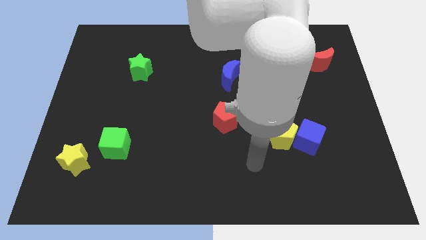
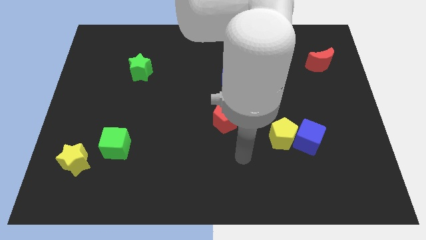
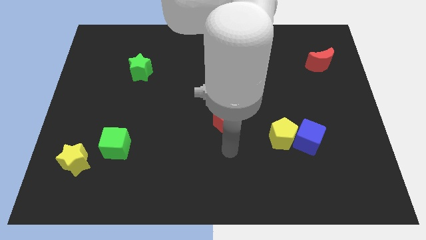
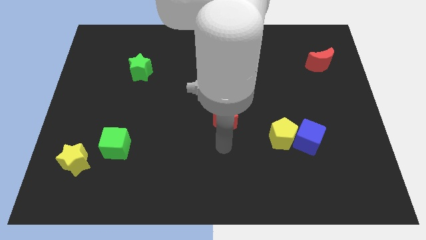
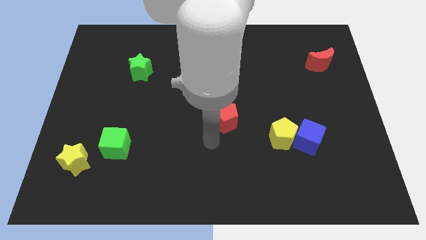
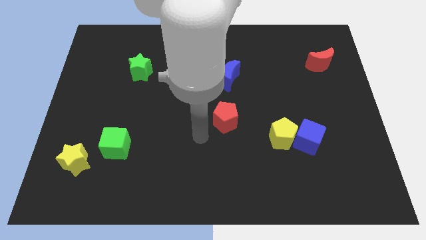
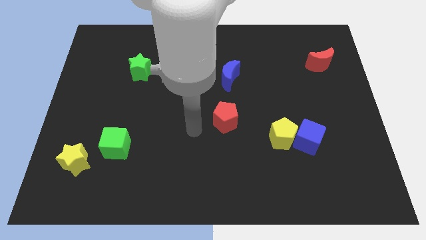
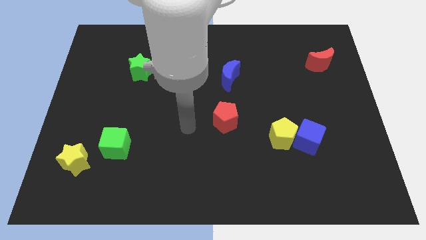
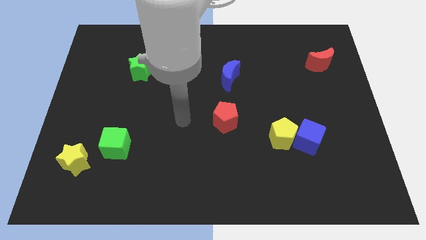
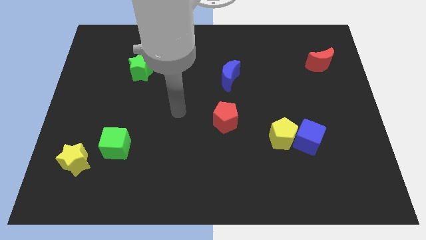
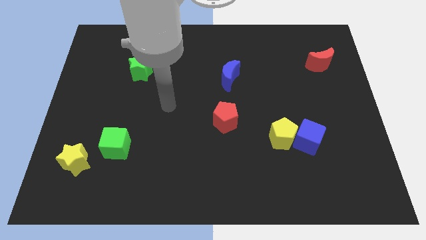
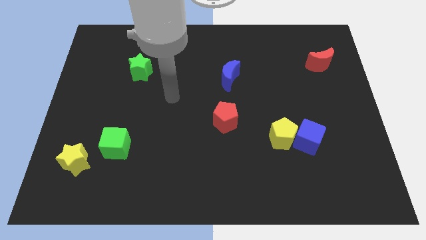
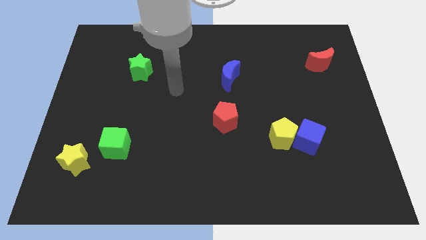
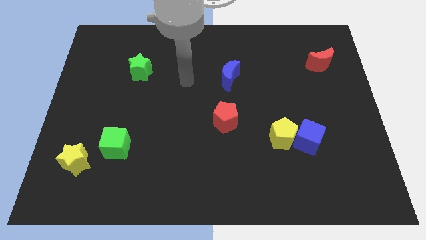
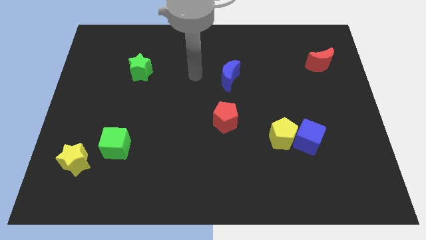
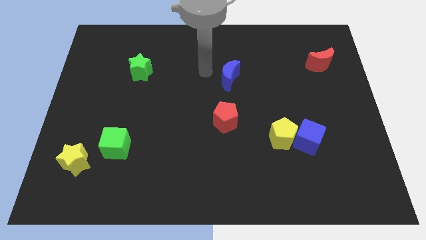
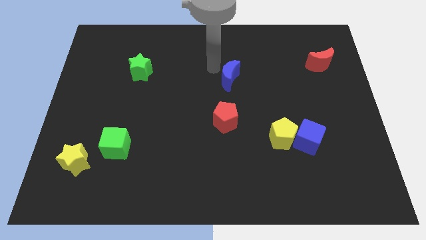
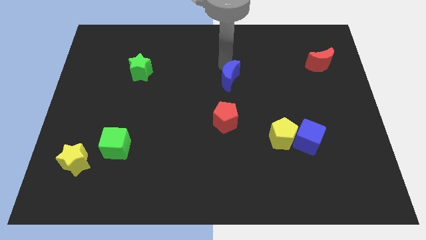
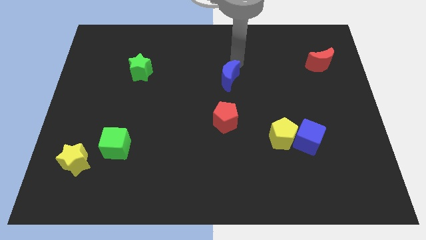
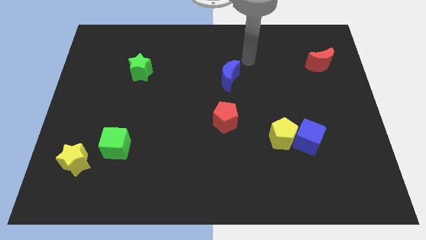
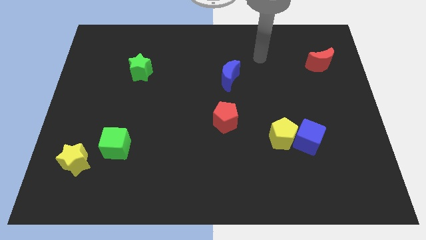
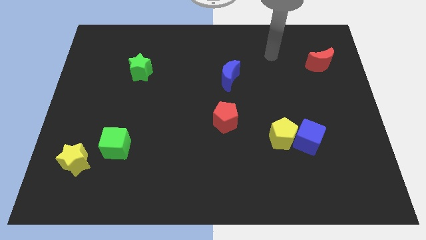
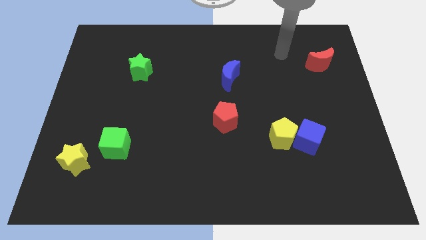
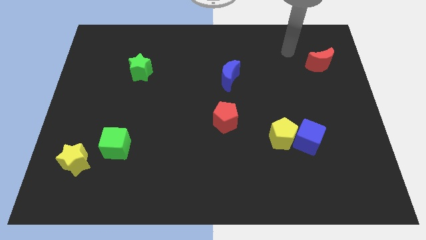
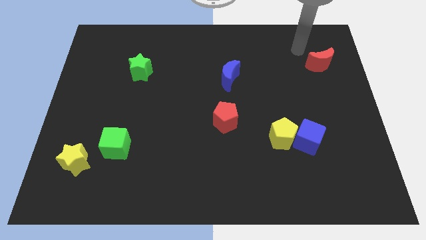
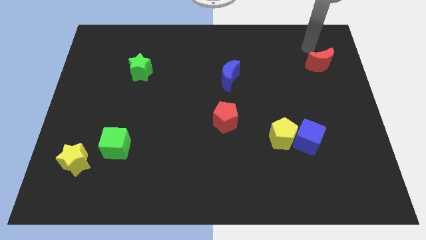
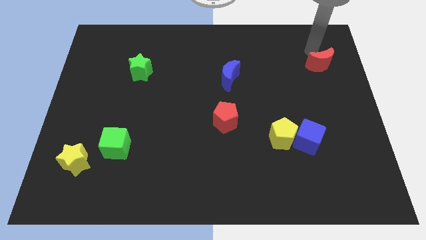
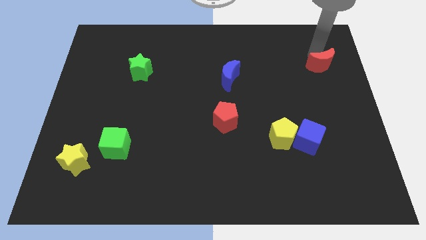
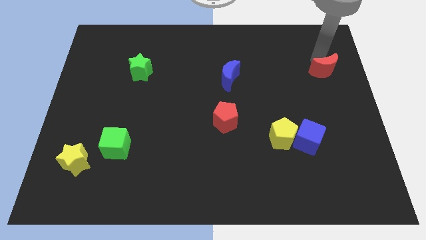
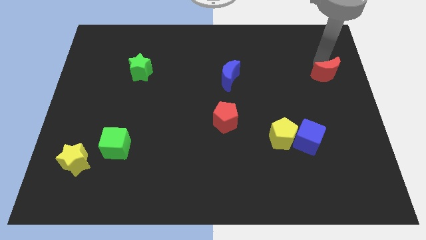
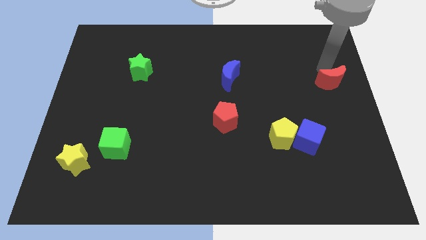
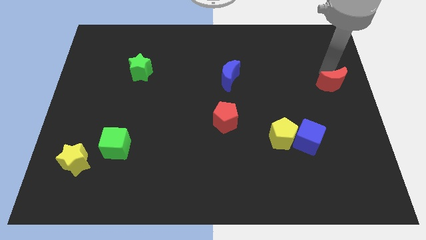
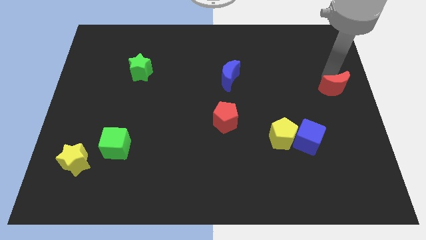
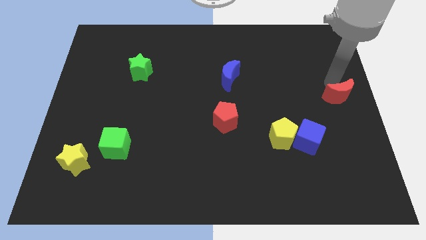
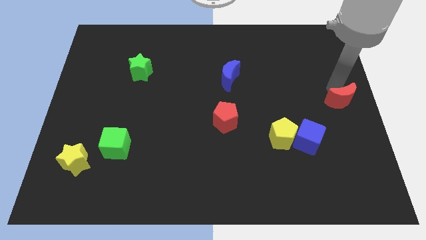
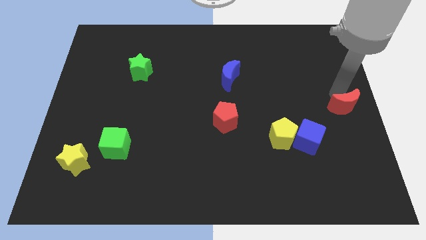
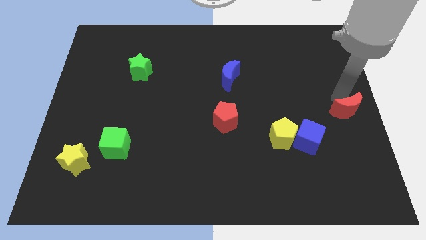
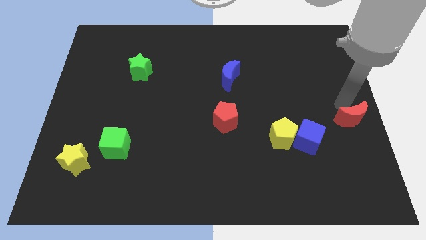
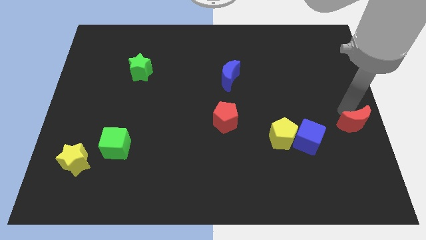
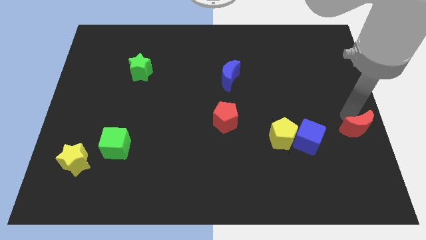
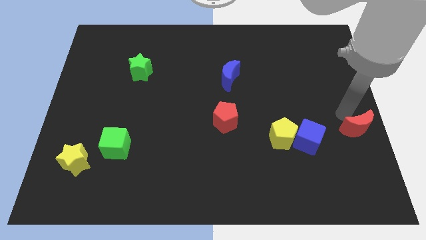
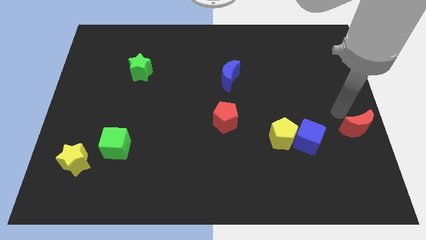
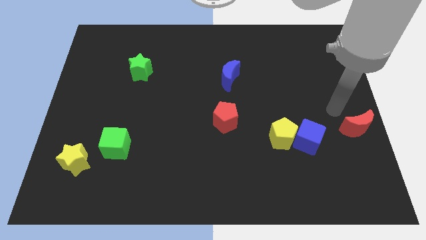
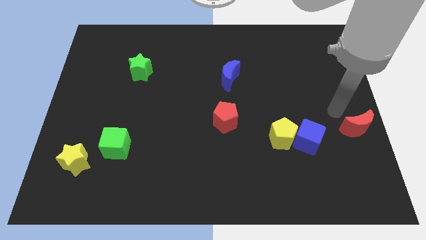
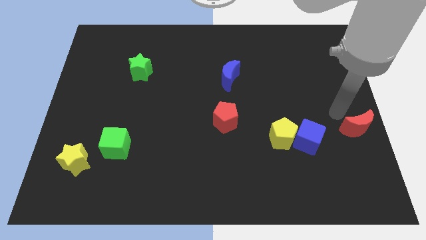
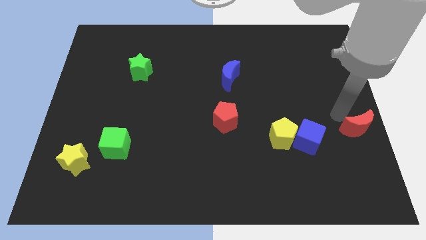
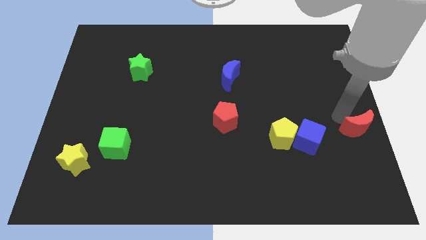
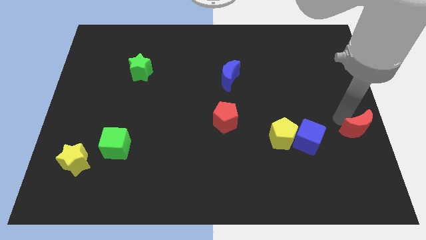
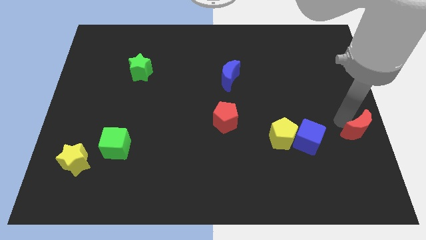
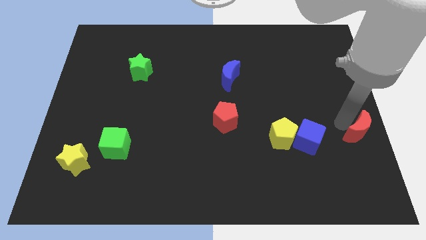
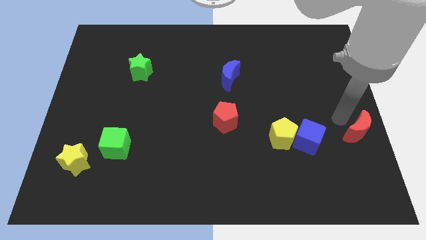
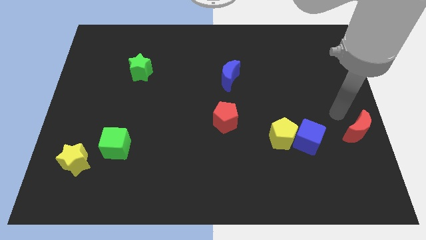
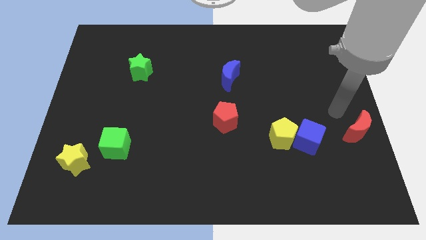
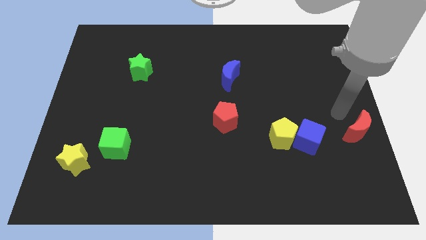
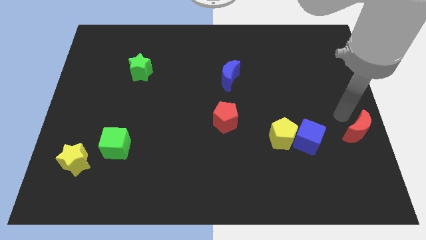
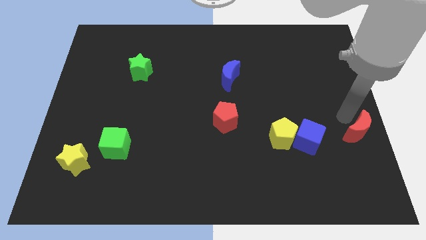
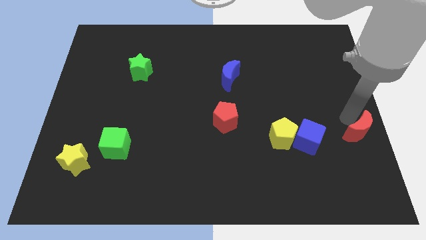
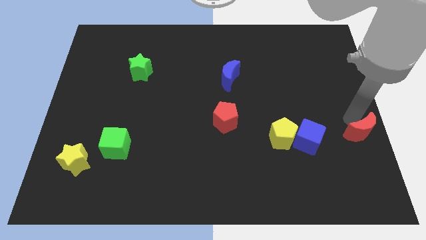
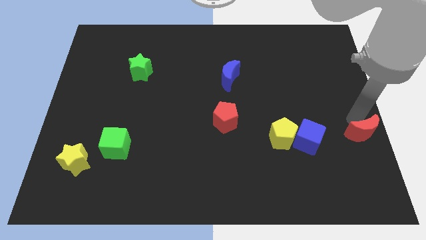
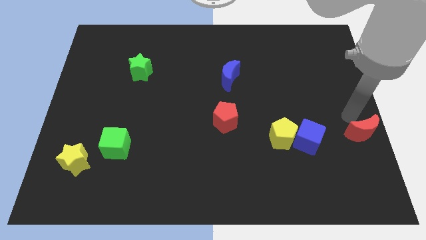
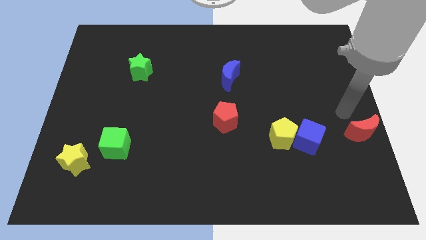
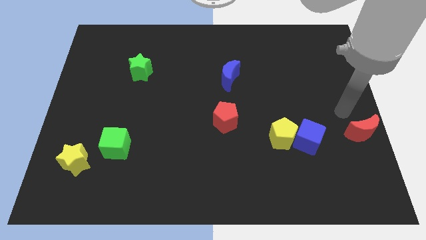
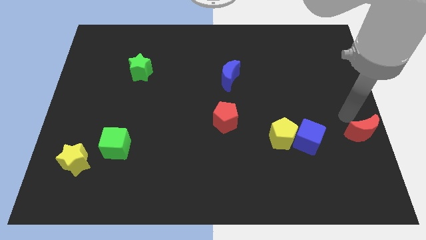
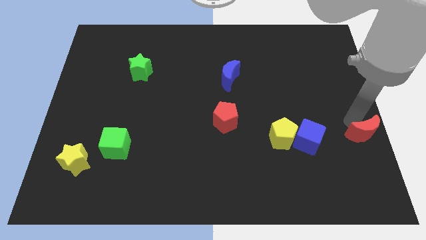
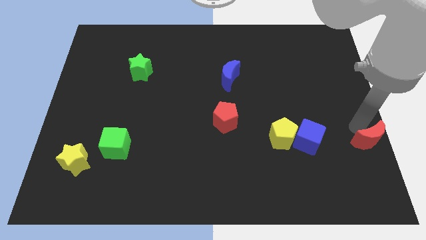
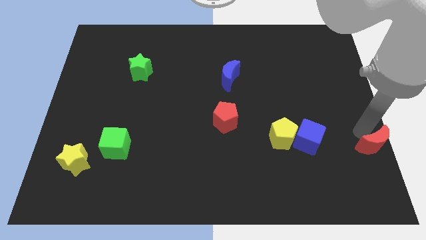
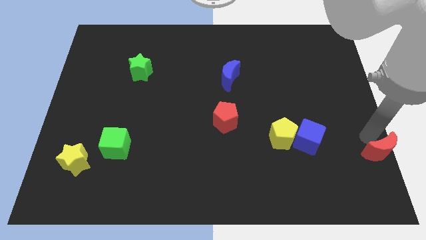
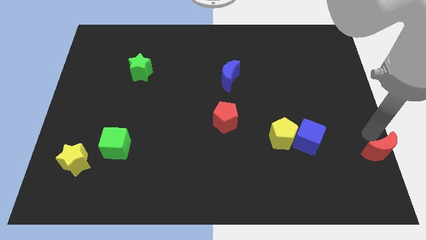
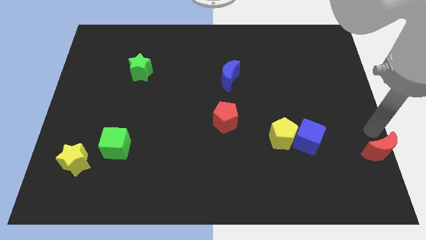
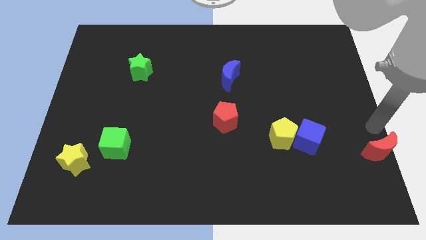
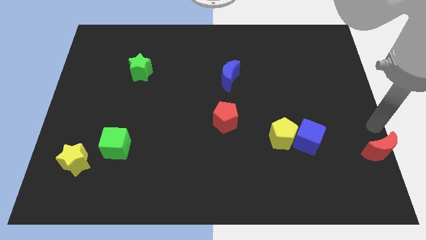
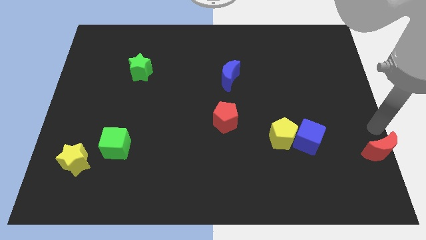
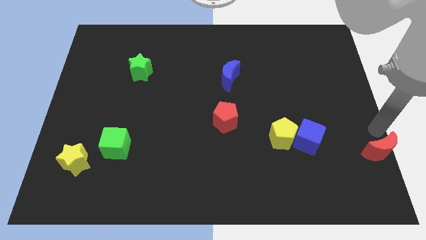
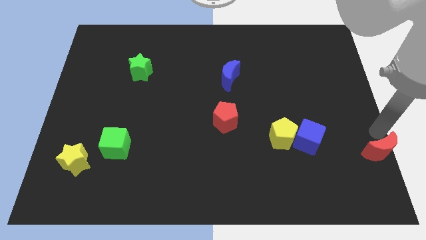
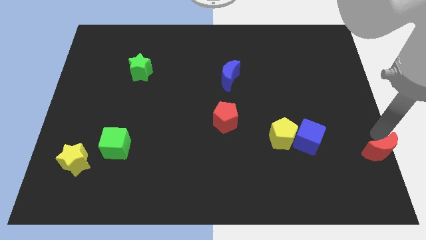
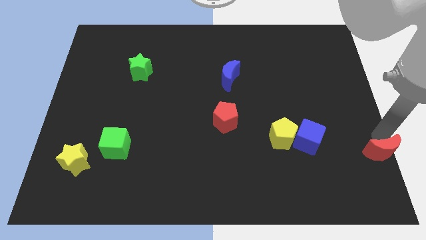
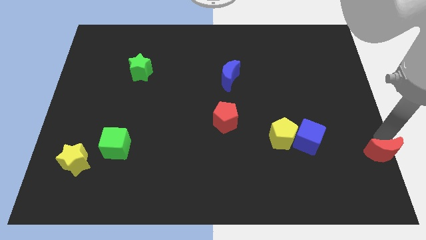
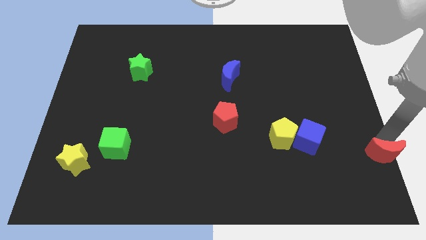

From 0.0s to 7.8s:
push the red moon to the bottom right
